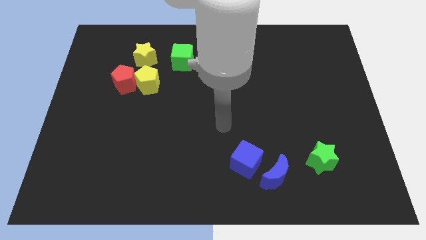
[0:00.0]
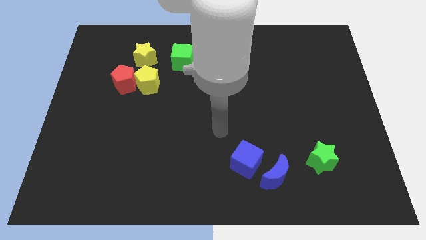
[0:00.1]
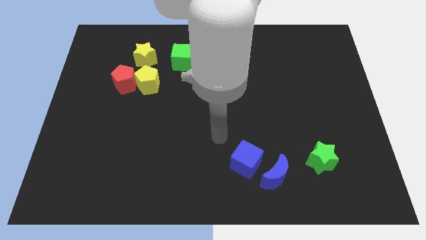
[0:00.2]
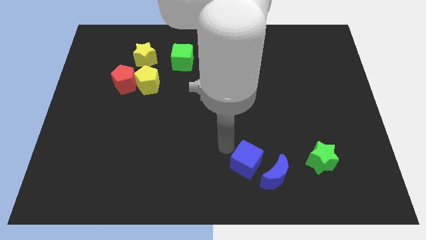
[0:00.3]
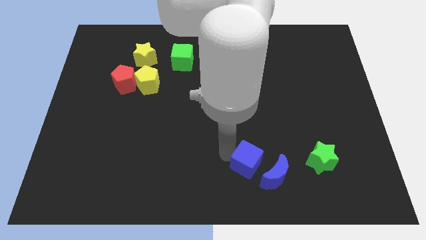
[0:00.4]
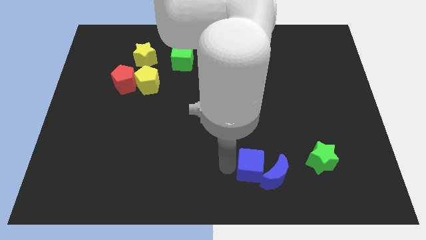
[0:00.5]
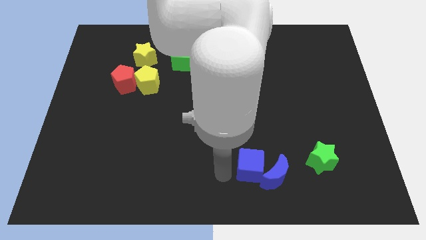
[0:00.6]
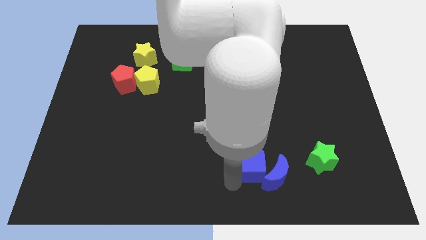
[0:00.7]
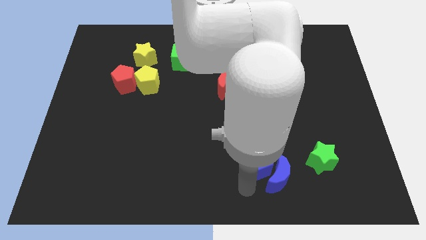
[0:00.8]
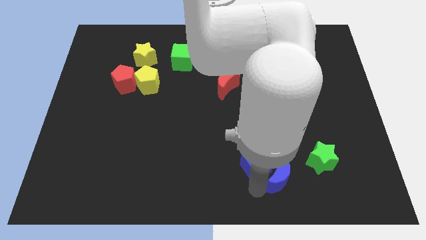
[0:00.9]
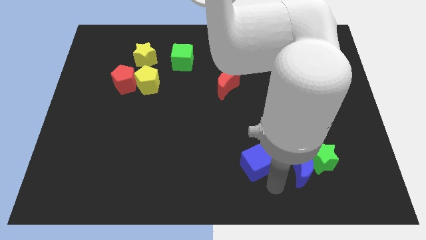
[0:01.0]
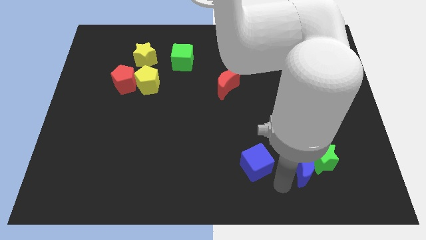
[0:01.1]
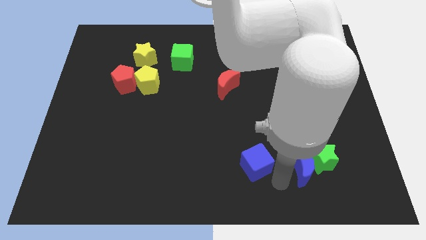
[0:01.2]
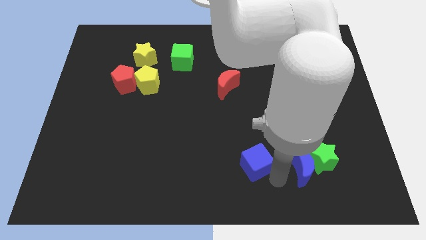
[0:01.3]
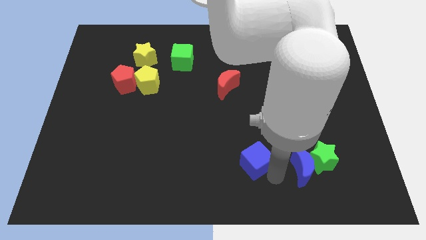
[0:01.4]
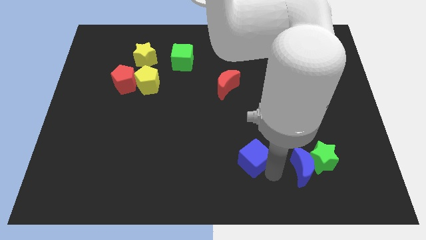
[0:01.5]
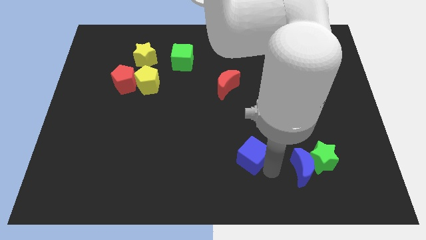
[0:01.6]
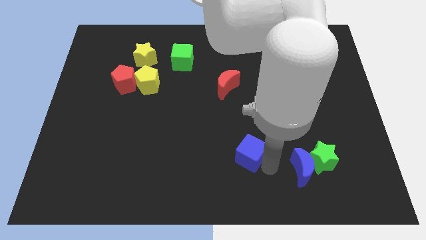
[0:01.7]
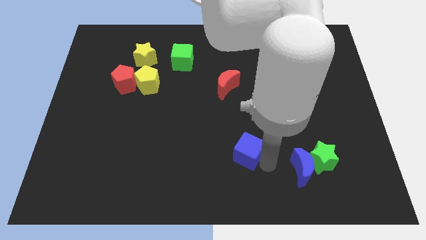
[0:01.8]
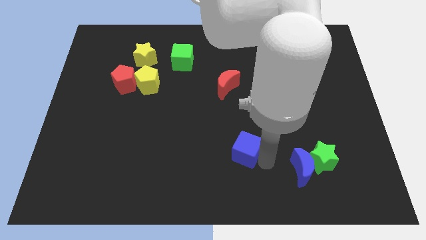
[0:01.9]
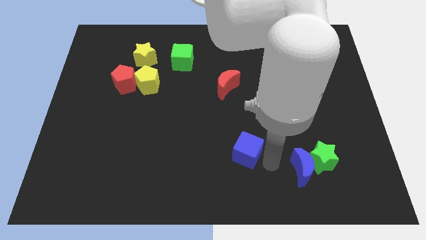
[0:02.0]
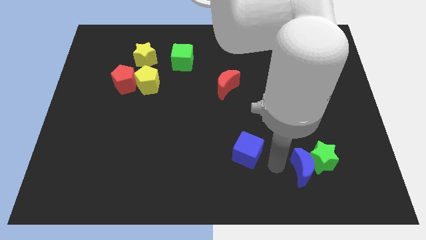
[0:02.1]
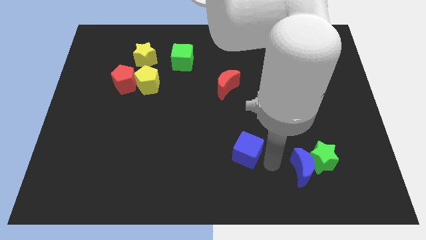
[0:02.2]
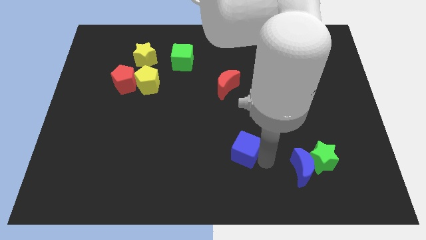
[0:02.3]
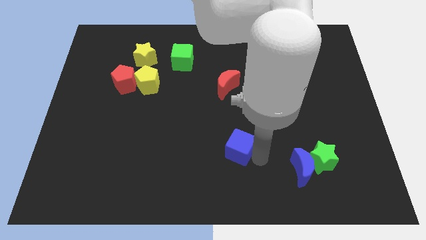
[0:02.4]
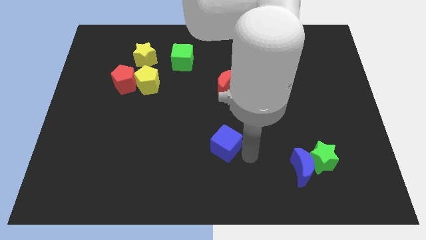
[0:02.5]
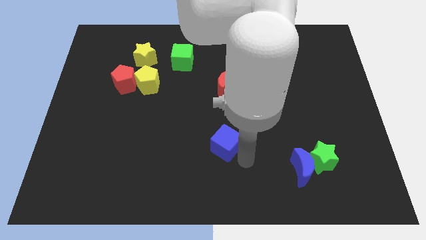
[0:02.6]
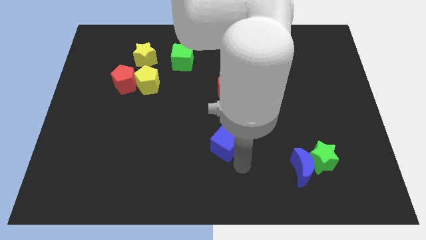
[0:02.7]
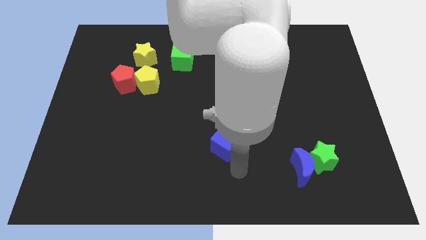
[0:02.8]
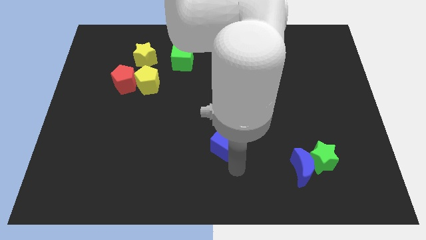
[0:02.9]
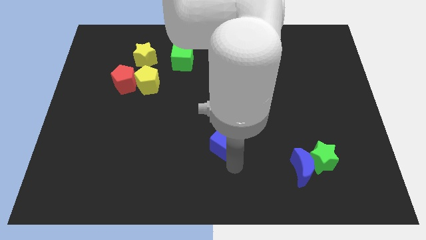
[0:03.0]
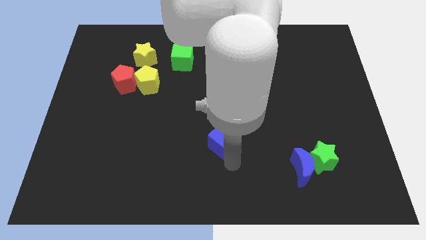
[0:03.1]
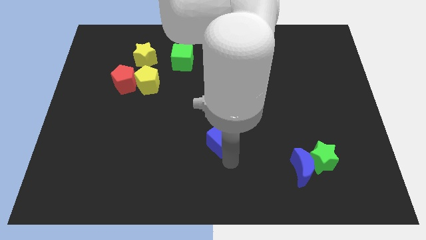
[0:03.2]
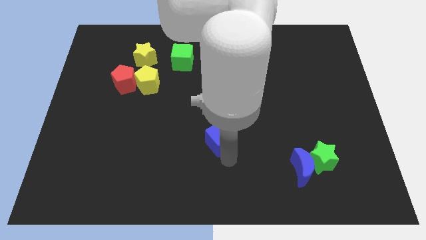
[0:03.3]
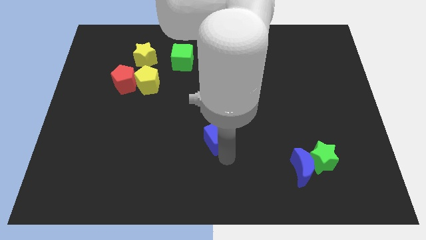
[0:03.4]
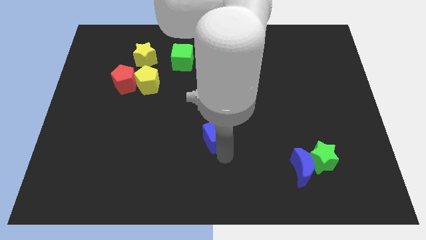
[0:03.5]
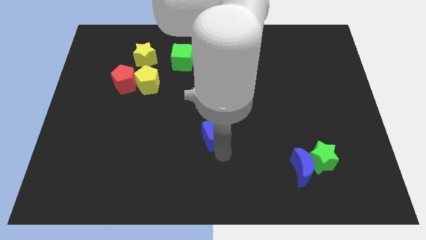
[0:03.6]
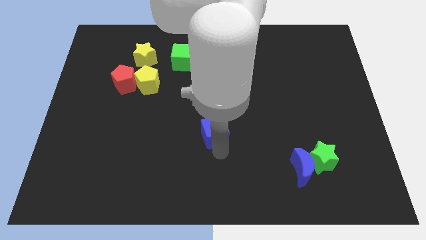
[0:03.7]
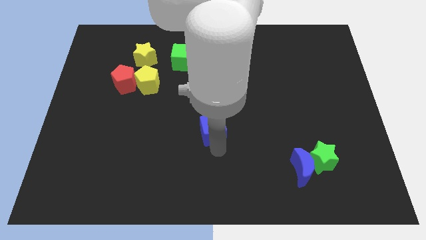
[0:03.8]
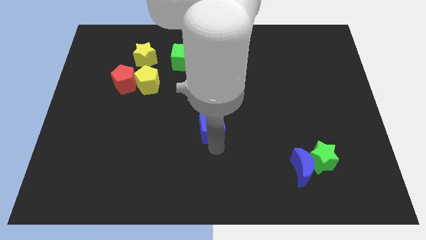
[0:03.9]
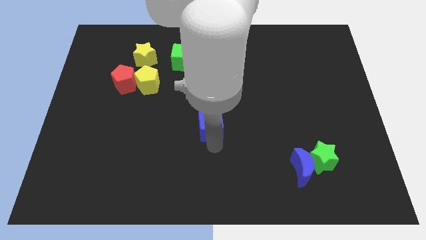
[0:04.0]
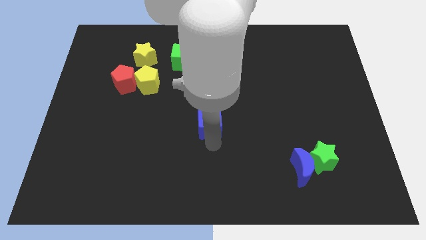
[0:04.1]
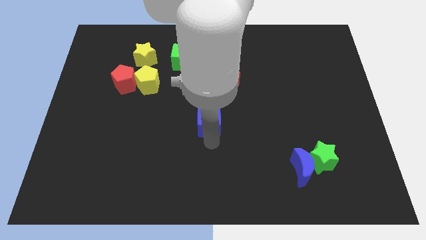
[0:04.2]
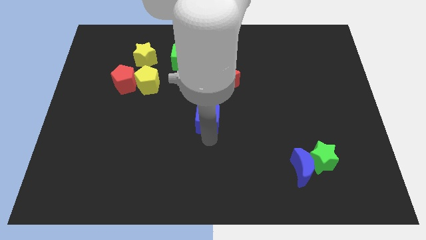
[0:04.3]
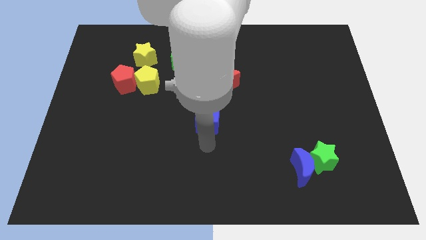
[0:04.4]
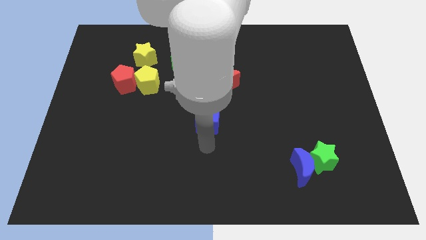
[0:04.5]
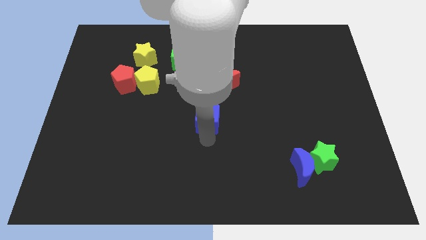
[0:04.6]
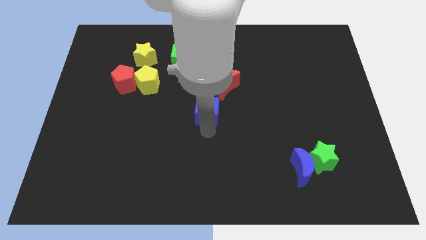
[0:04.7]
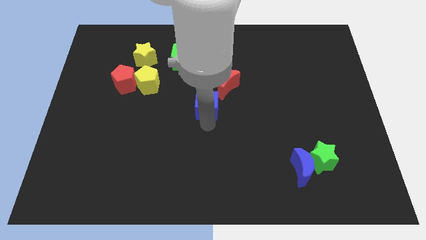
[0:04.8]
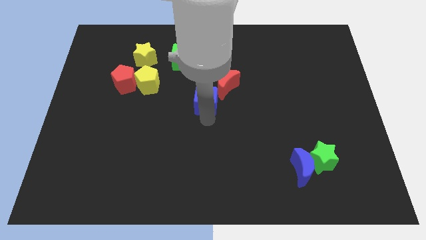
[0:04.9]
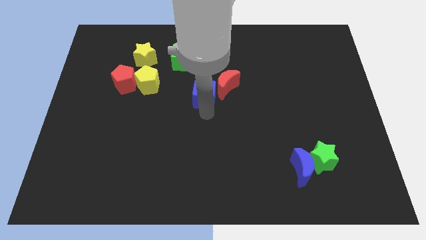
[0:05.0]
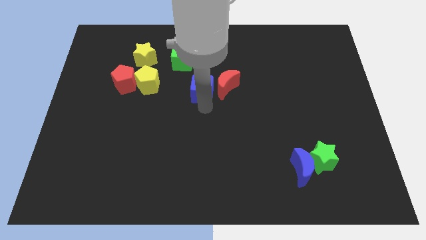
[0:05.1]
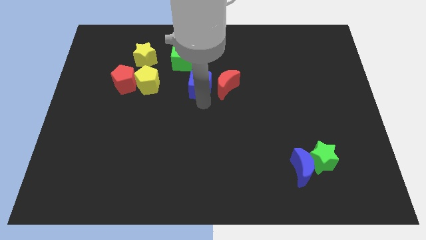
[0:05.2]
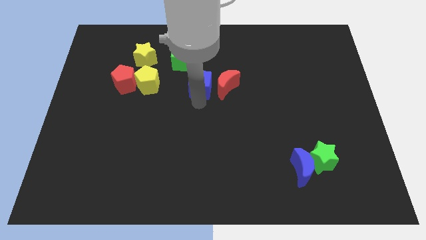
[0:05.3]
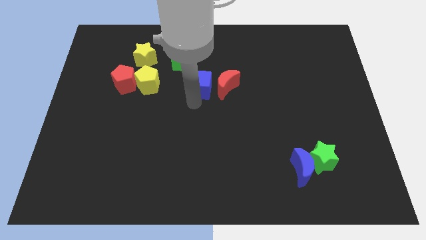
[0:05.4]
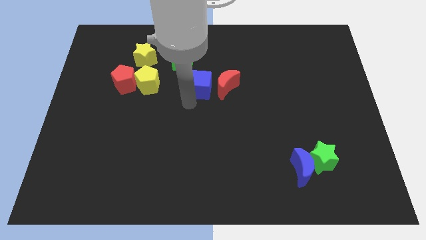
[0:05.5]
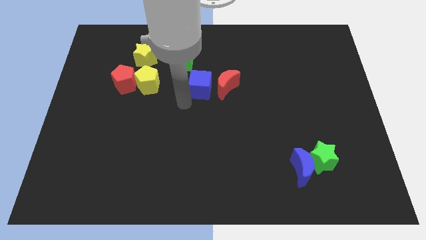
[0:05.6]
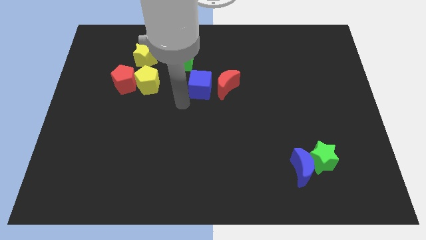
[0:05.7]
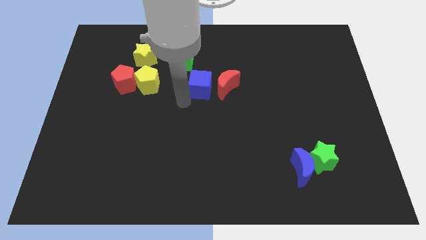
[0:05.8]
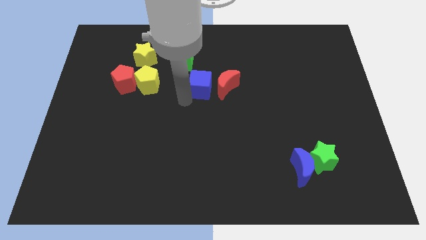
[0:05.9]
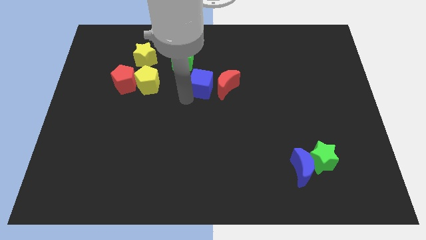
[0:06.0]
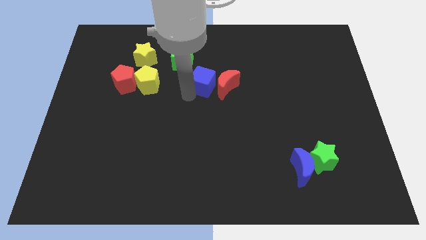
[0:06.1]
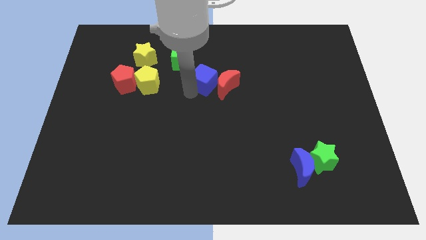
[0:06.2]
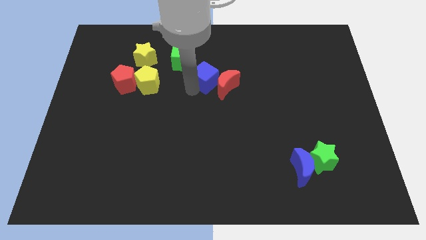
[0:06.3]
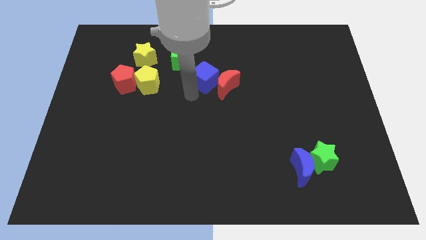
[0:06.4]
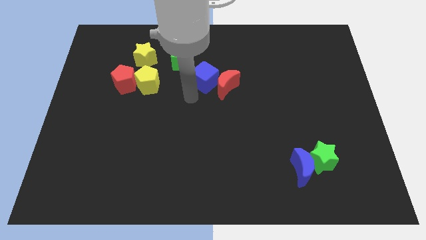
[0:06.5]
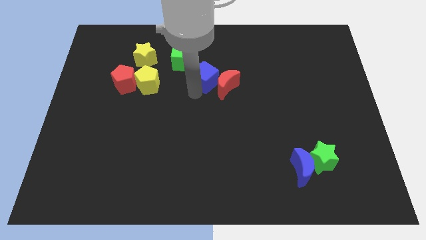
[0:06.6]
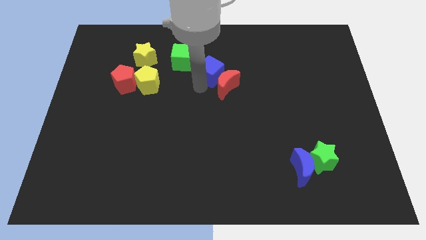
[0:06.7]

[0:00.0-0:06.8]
push the blue cube just right of the green cube

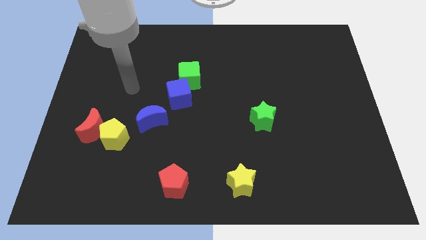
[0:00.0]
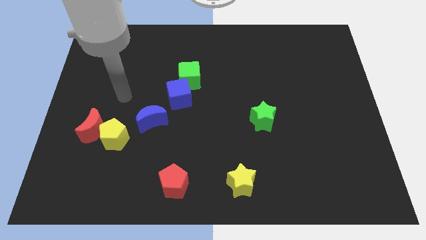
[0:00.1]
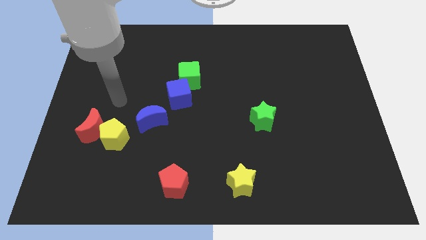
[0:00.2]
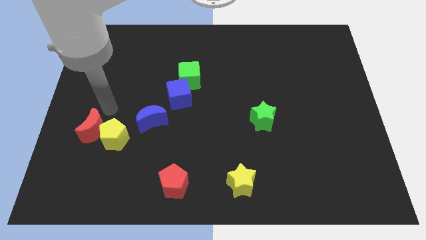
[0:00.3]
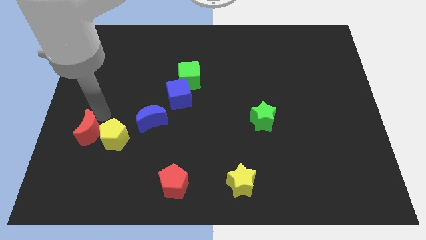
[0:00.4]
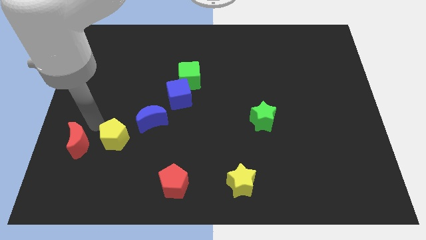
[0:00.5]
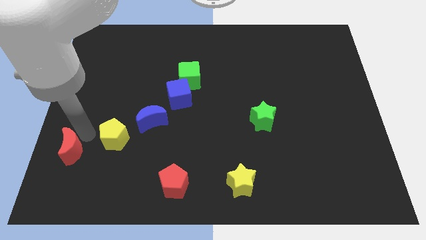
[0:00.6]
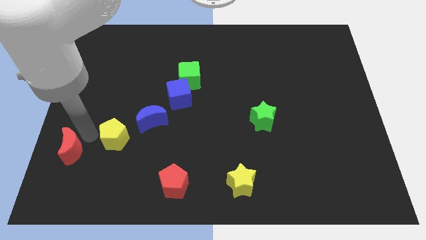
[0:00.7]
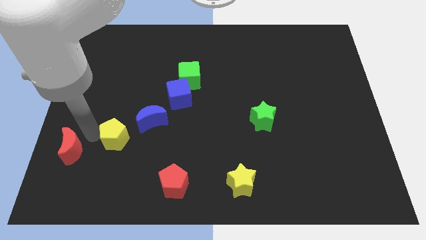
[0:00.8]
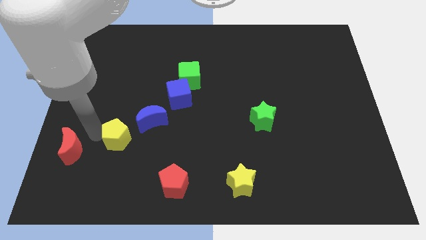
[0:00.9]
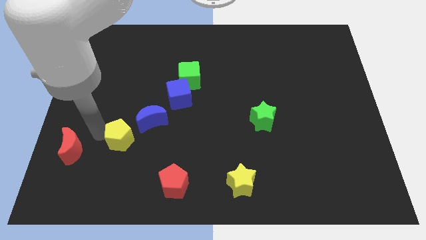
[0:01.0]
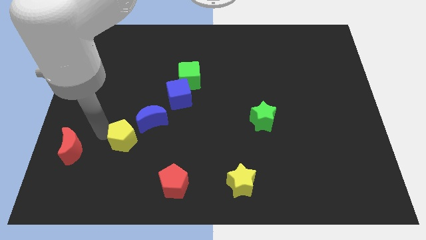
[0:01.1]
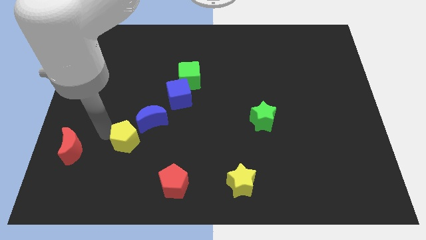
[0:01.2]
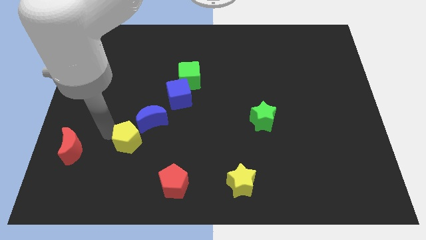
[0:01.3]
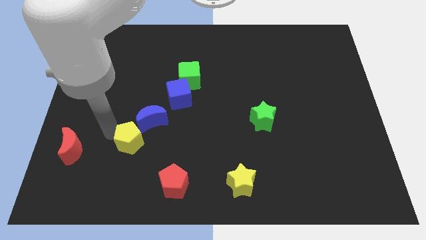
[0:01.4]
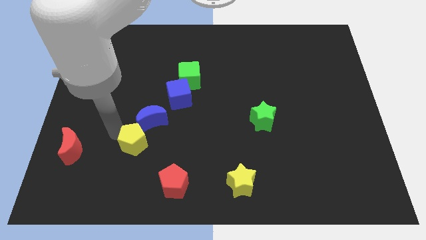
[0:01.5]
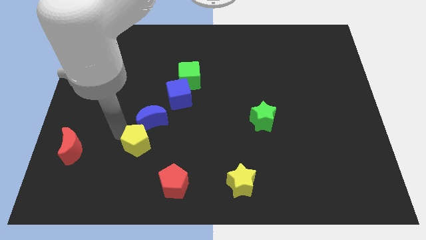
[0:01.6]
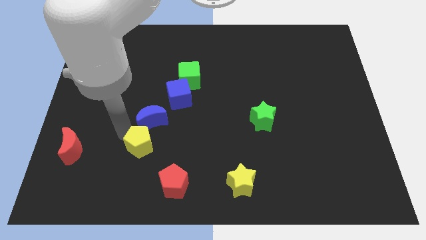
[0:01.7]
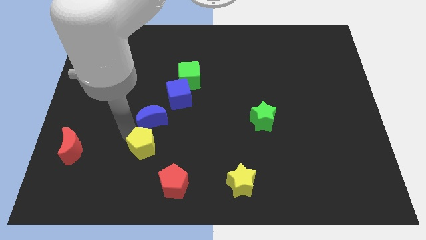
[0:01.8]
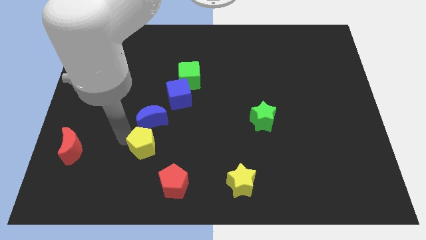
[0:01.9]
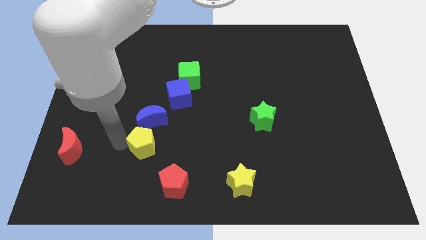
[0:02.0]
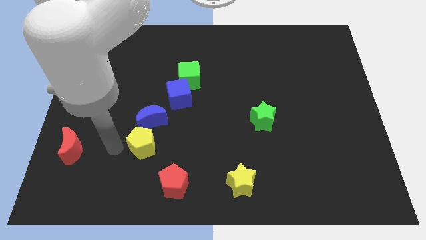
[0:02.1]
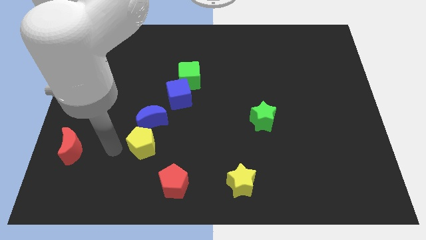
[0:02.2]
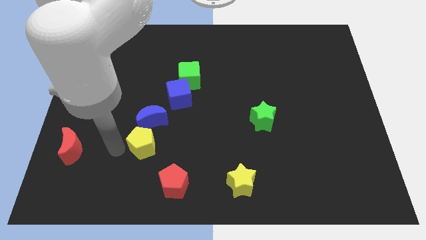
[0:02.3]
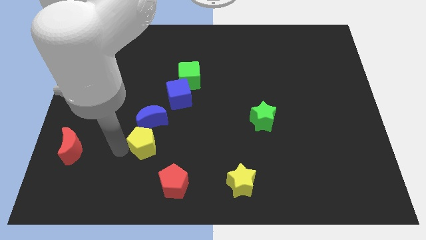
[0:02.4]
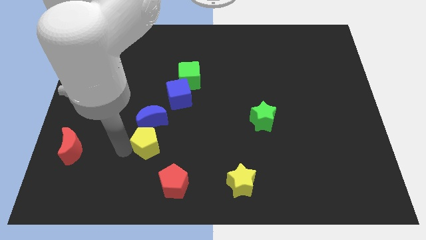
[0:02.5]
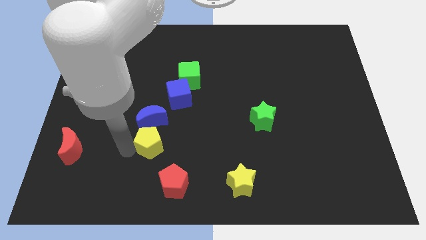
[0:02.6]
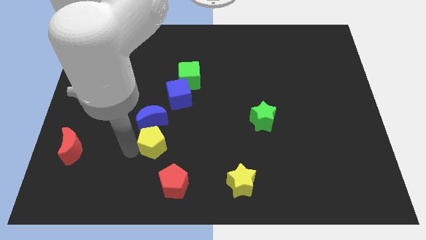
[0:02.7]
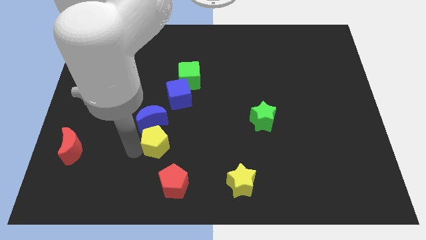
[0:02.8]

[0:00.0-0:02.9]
push the yellow pentagon above the red pentagon
